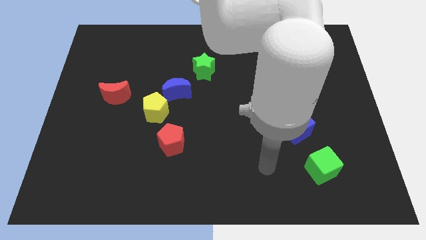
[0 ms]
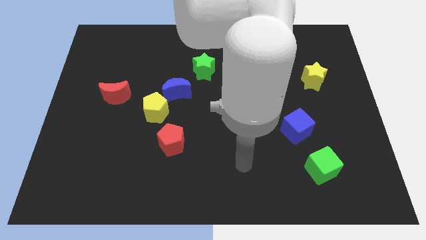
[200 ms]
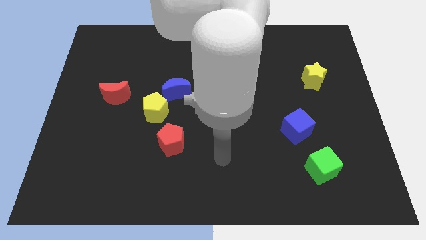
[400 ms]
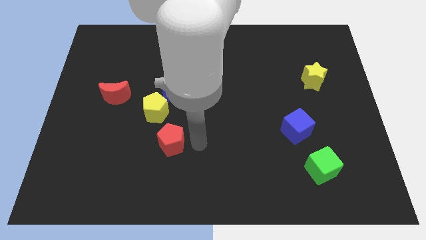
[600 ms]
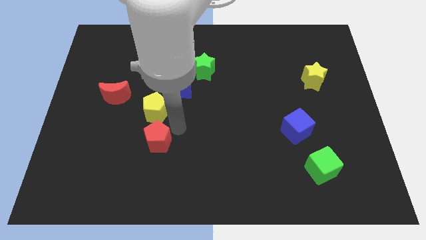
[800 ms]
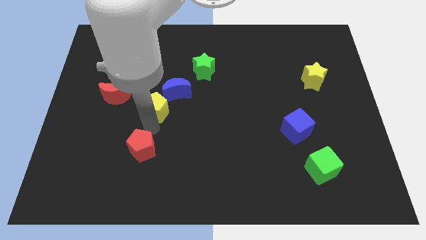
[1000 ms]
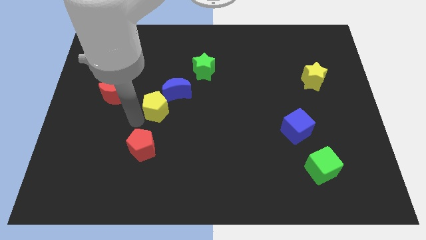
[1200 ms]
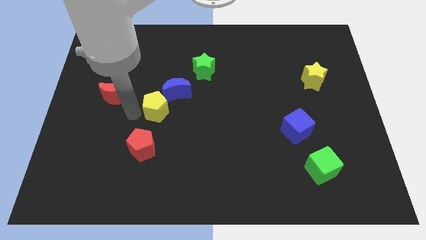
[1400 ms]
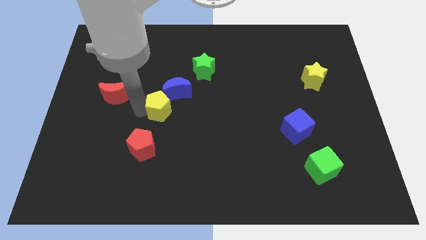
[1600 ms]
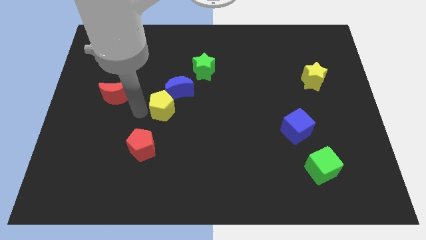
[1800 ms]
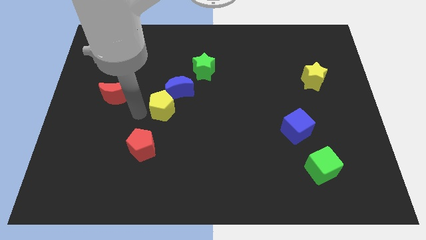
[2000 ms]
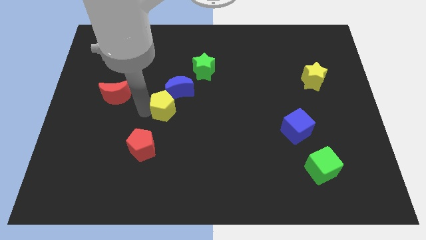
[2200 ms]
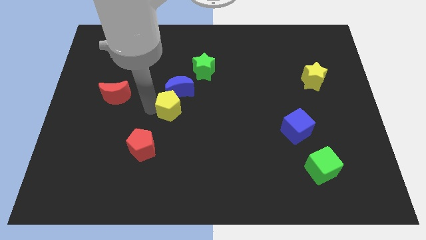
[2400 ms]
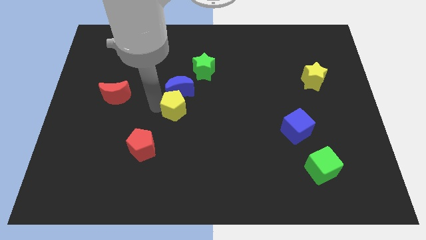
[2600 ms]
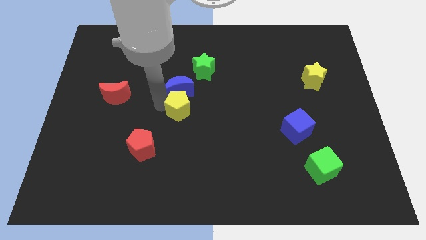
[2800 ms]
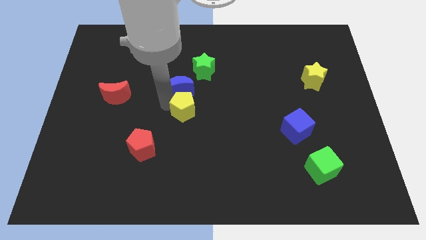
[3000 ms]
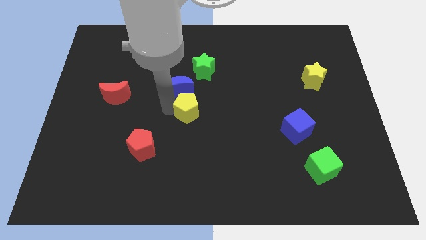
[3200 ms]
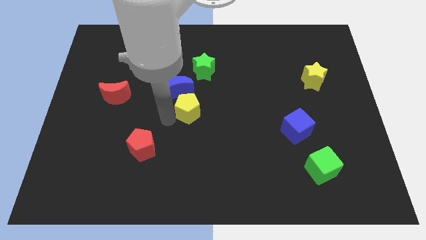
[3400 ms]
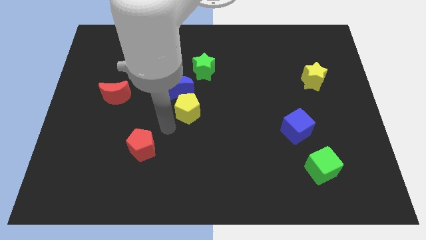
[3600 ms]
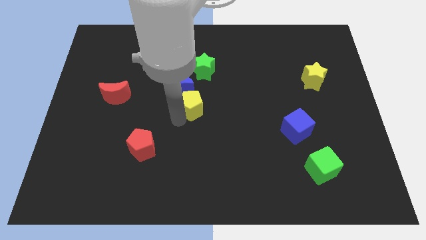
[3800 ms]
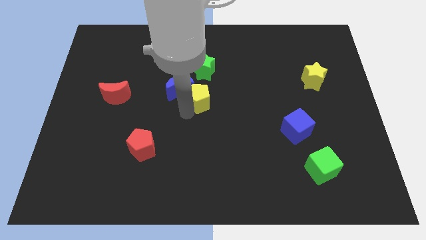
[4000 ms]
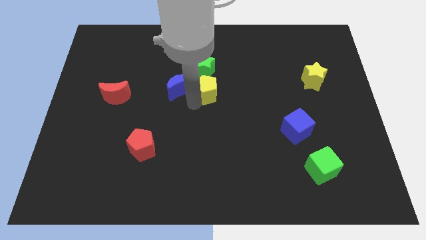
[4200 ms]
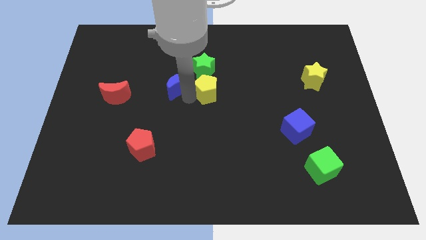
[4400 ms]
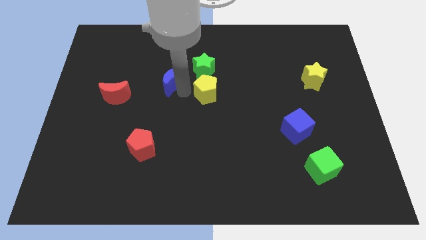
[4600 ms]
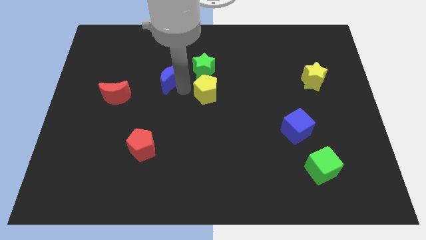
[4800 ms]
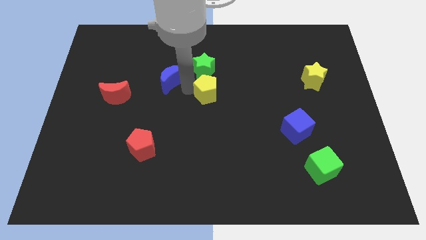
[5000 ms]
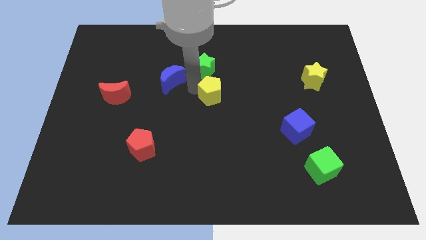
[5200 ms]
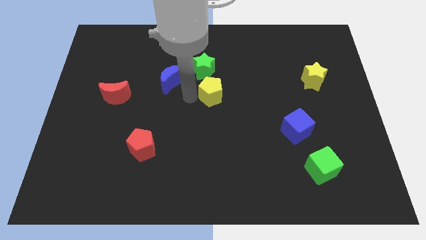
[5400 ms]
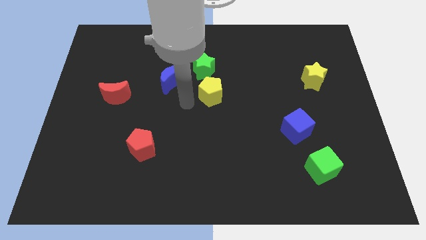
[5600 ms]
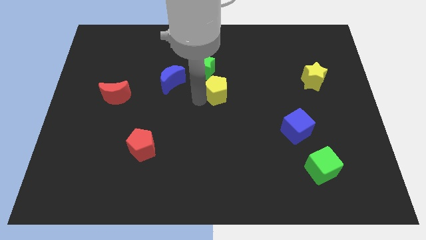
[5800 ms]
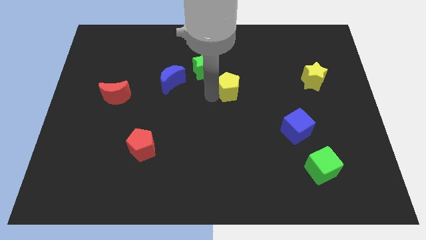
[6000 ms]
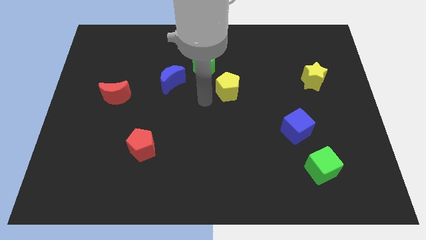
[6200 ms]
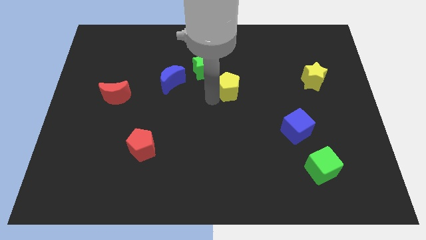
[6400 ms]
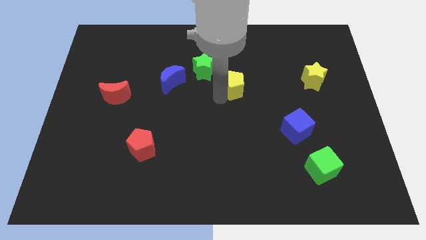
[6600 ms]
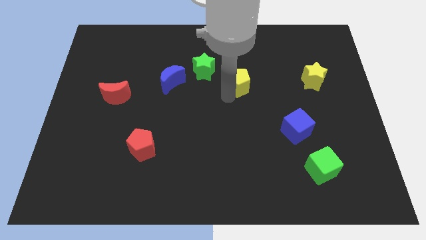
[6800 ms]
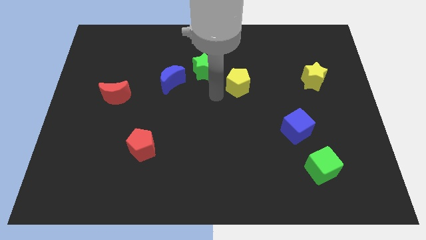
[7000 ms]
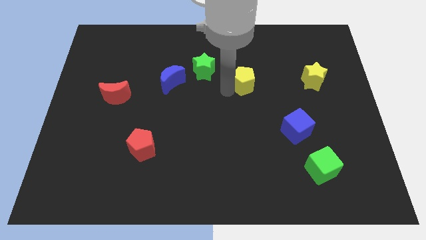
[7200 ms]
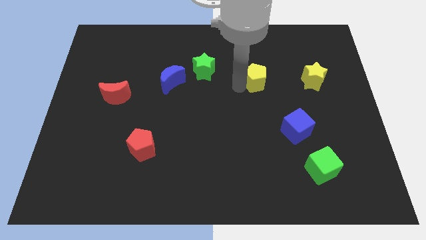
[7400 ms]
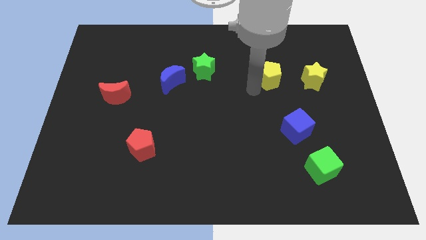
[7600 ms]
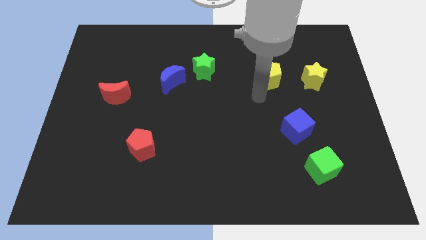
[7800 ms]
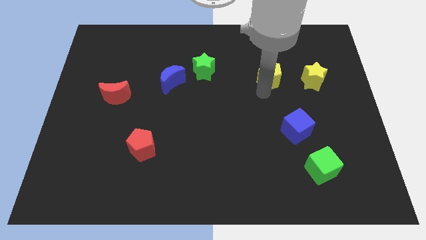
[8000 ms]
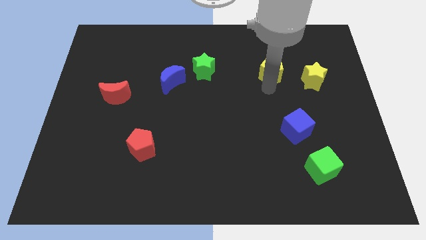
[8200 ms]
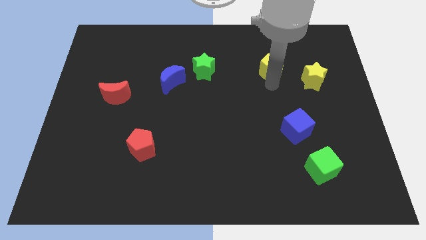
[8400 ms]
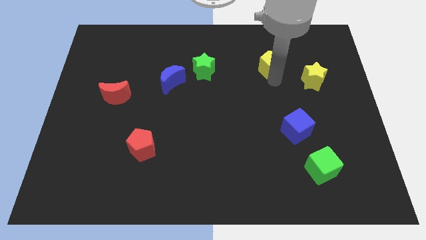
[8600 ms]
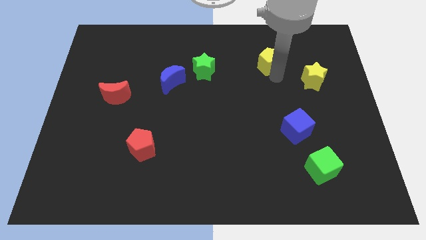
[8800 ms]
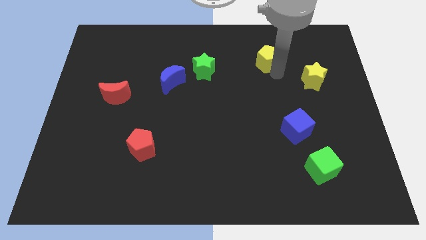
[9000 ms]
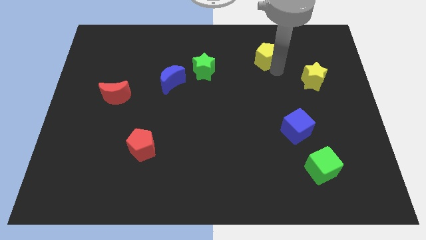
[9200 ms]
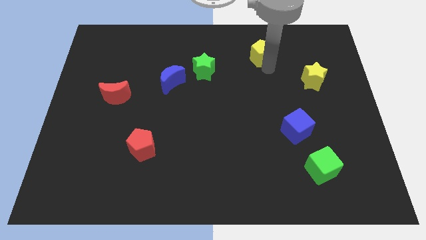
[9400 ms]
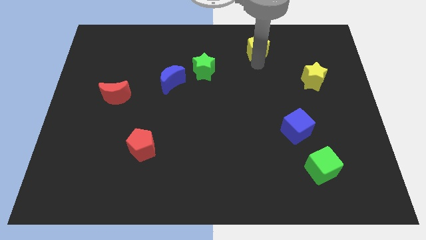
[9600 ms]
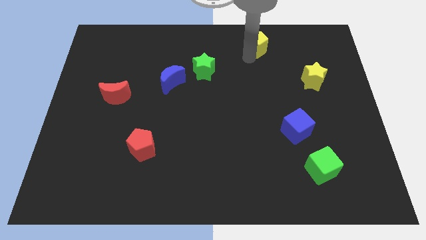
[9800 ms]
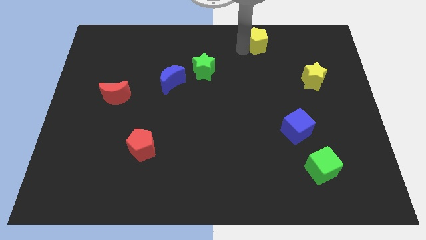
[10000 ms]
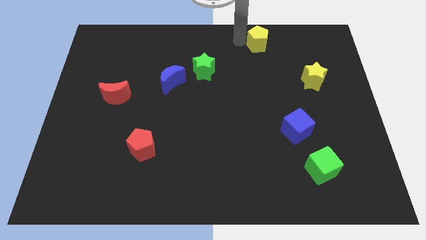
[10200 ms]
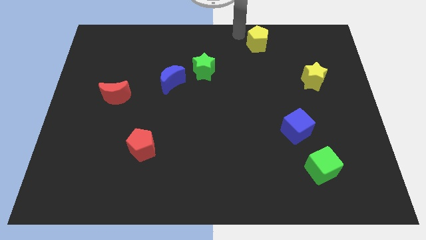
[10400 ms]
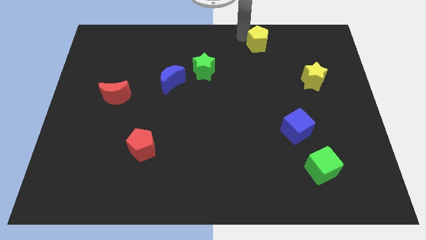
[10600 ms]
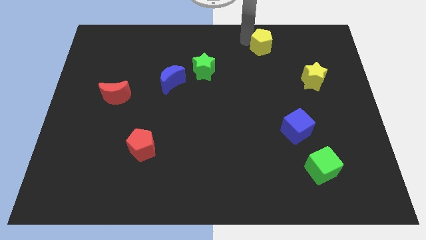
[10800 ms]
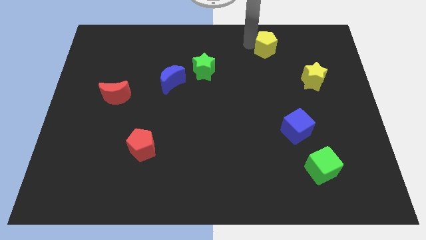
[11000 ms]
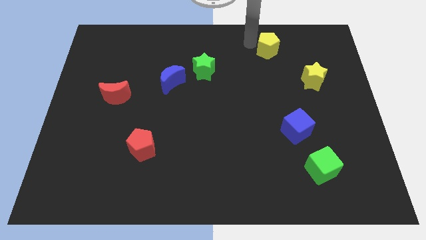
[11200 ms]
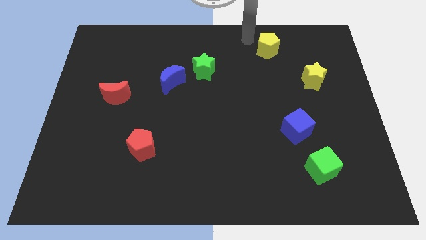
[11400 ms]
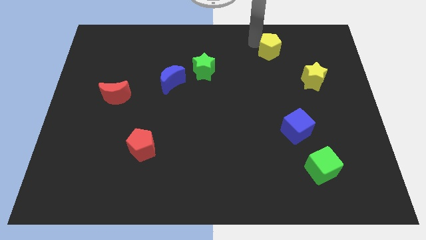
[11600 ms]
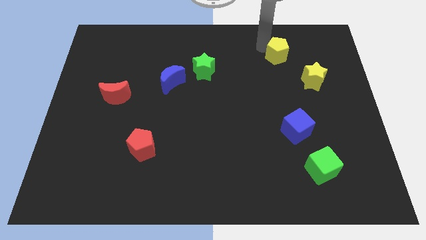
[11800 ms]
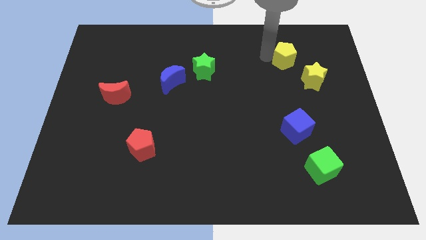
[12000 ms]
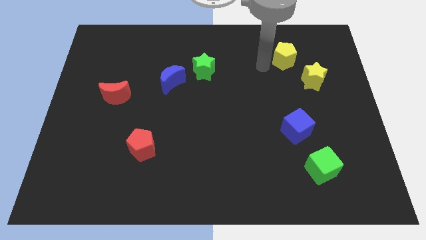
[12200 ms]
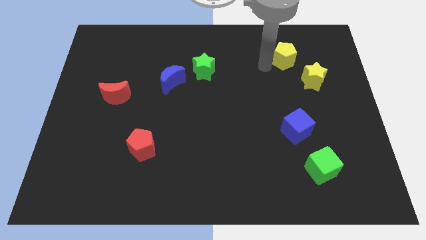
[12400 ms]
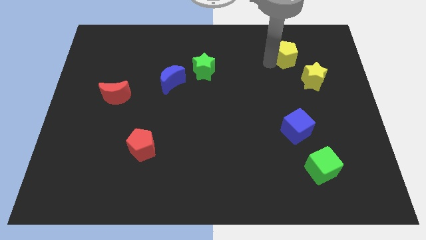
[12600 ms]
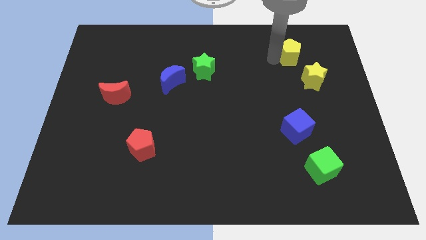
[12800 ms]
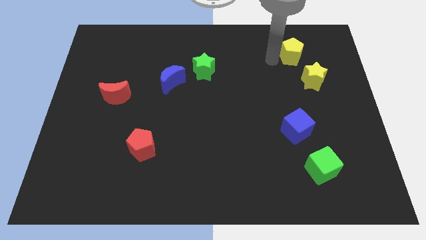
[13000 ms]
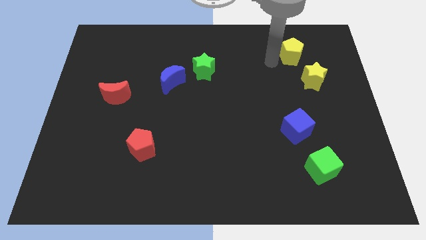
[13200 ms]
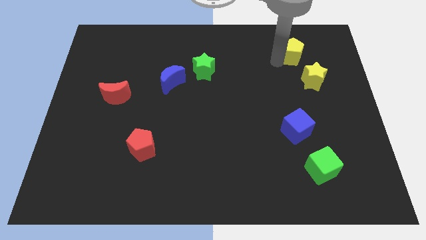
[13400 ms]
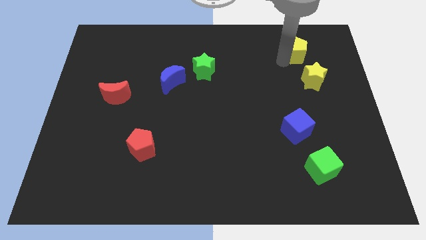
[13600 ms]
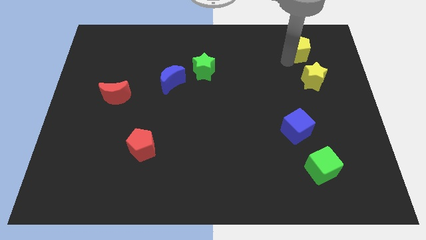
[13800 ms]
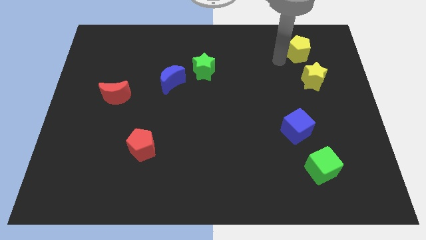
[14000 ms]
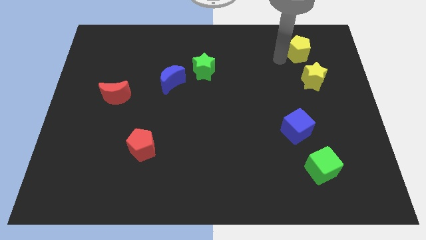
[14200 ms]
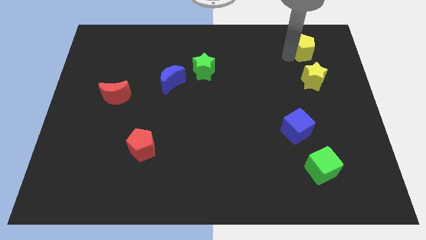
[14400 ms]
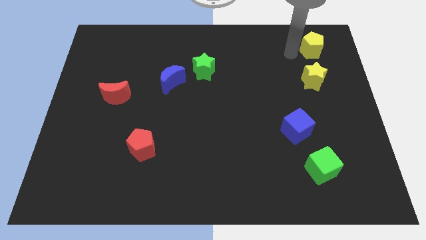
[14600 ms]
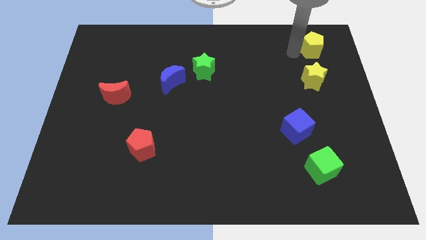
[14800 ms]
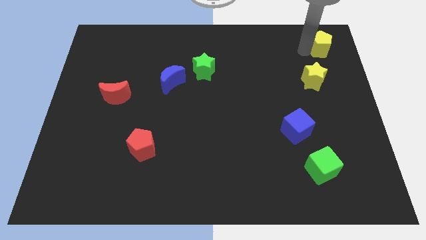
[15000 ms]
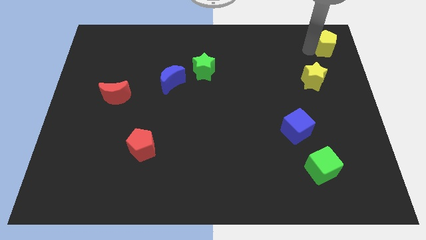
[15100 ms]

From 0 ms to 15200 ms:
push the yellow pentagon to the top right corner
